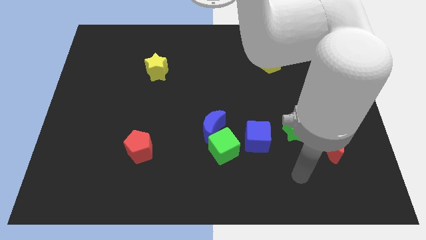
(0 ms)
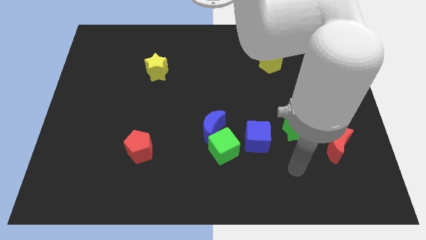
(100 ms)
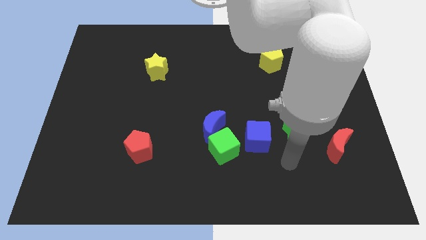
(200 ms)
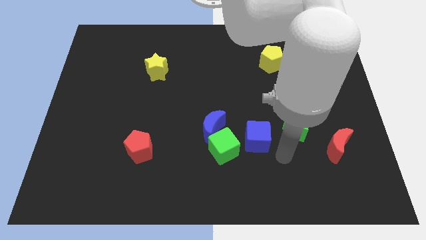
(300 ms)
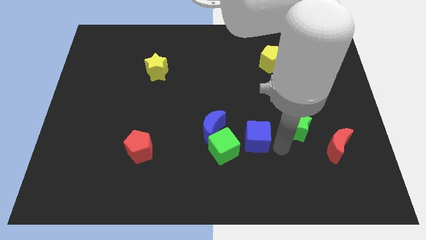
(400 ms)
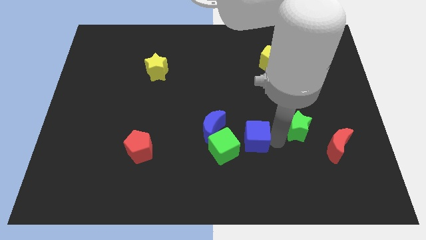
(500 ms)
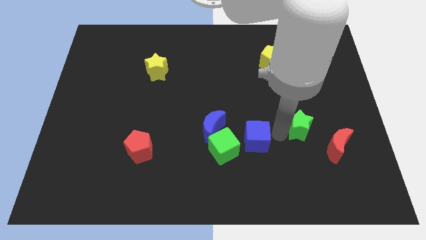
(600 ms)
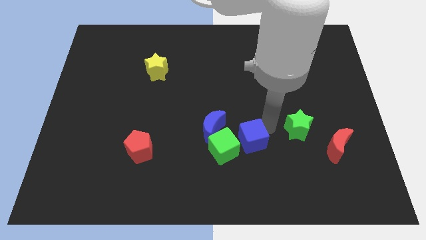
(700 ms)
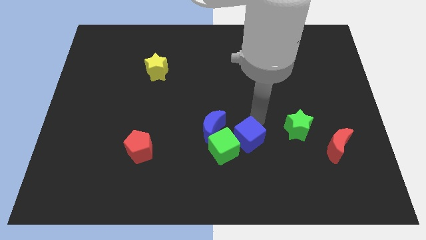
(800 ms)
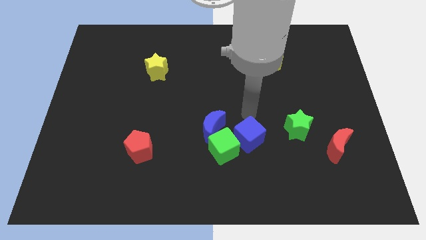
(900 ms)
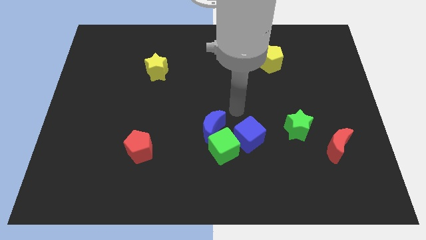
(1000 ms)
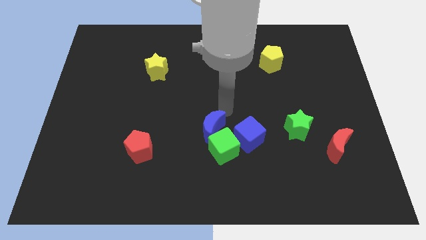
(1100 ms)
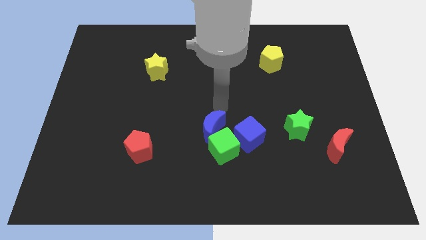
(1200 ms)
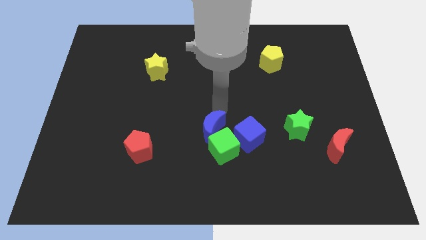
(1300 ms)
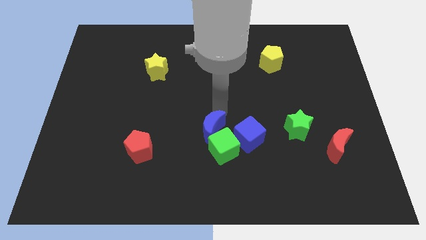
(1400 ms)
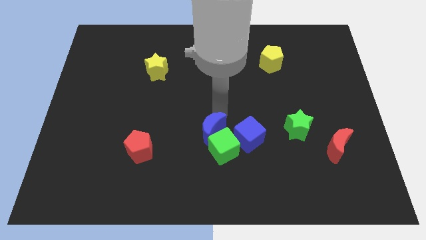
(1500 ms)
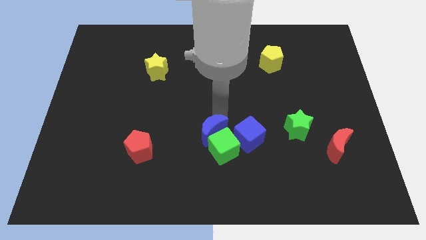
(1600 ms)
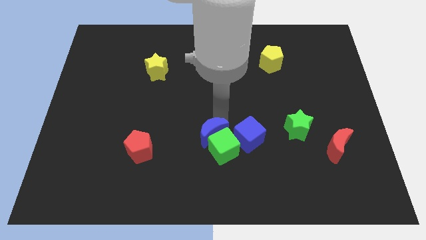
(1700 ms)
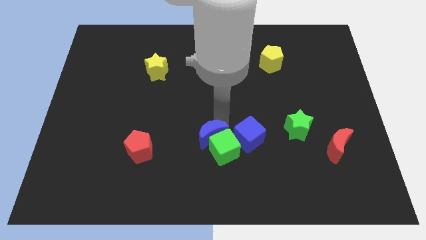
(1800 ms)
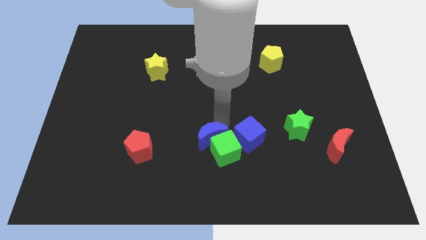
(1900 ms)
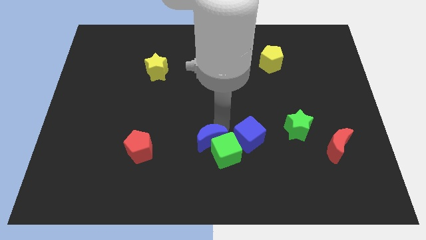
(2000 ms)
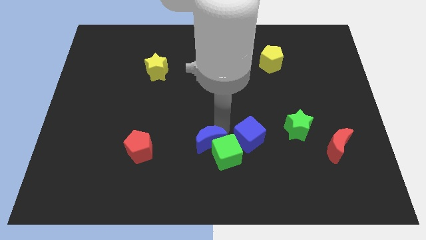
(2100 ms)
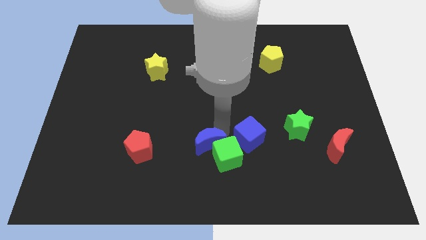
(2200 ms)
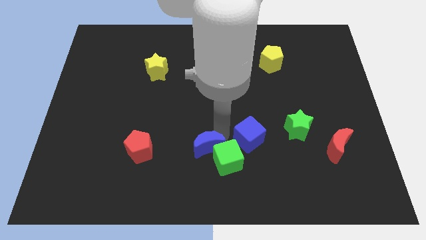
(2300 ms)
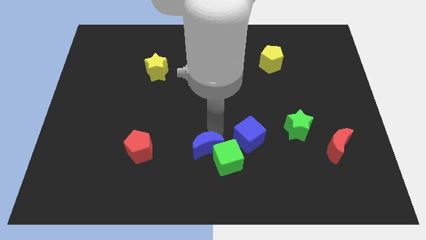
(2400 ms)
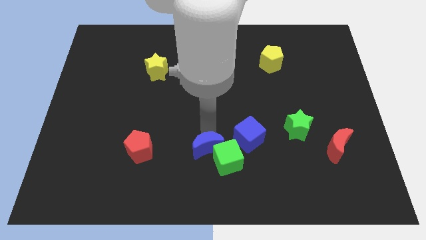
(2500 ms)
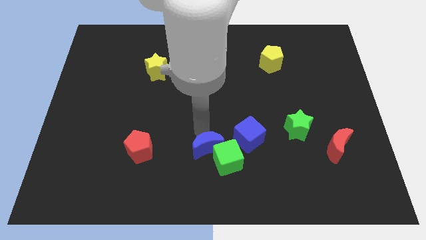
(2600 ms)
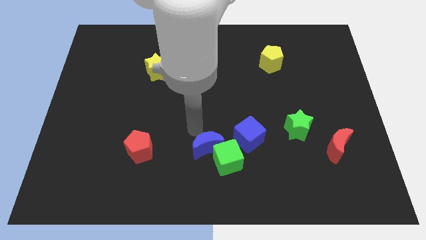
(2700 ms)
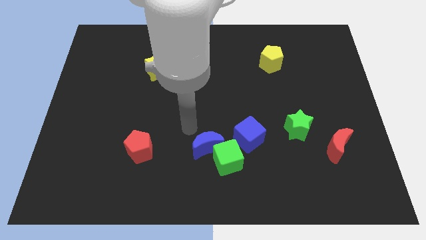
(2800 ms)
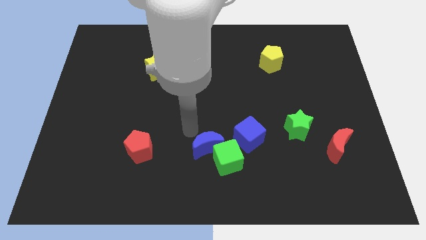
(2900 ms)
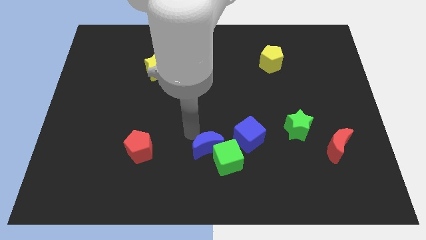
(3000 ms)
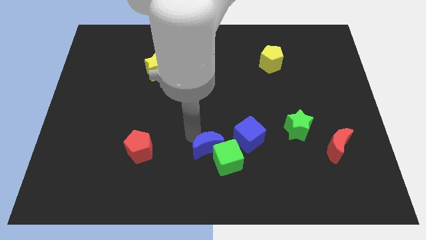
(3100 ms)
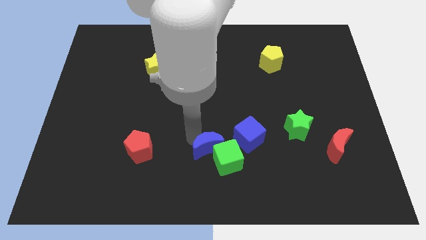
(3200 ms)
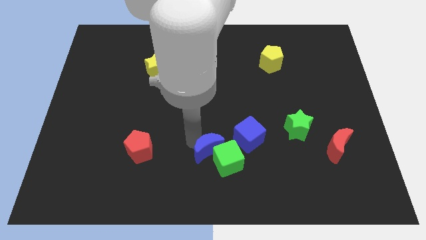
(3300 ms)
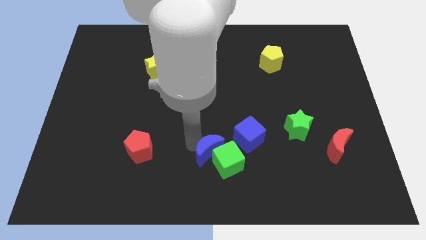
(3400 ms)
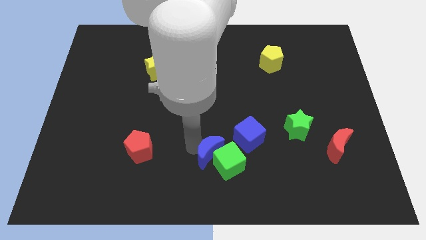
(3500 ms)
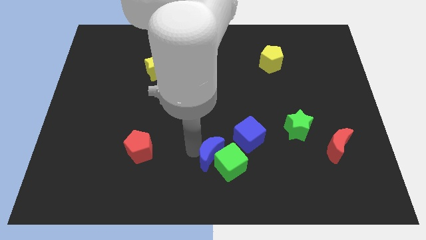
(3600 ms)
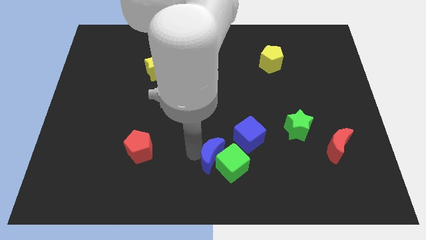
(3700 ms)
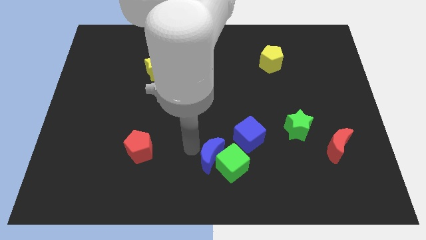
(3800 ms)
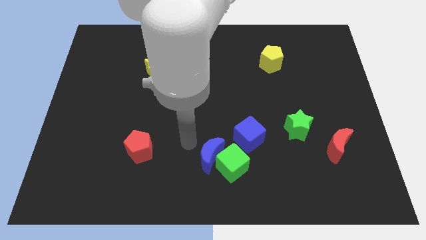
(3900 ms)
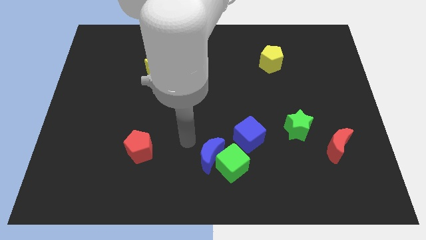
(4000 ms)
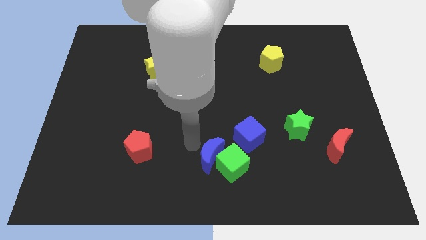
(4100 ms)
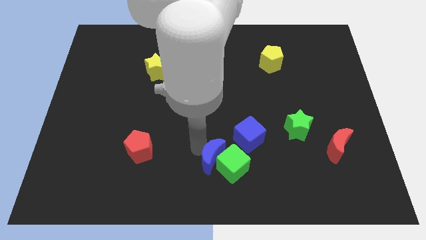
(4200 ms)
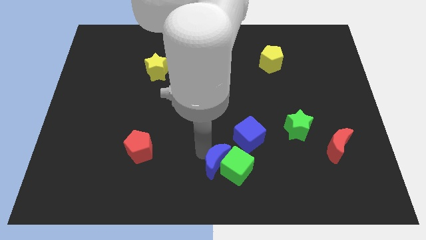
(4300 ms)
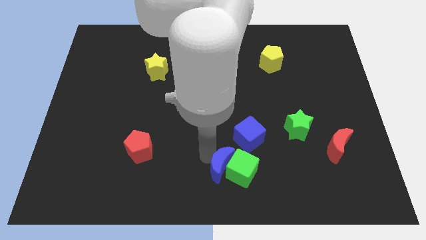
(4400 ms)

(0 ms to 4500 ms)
slightly push the blue moon down and then to the right

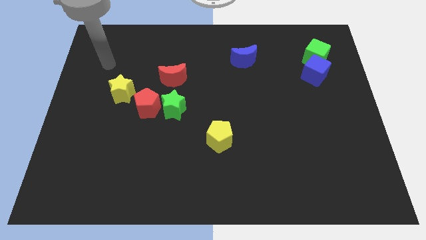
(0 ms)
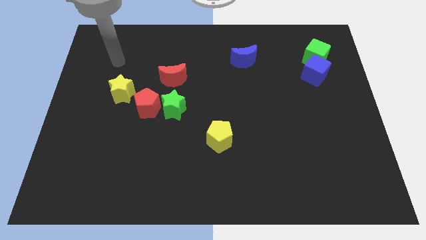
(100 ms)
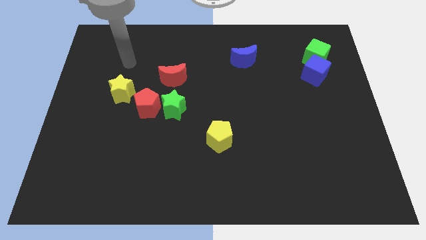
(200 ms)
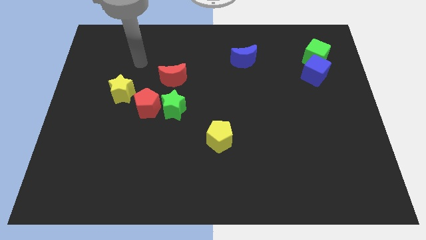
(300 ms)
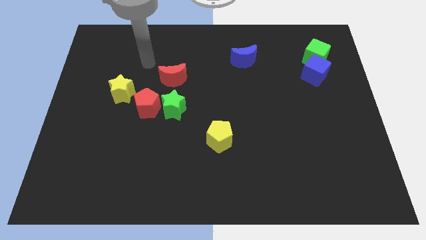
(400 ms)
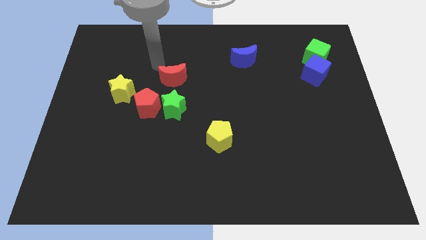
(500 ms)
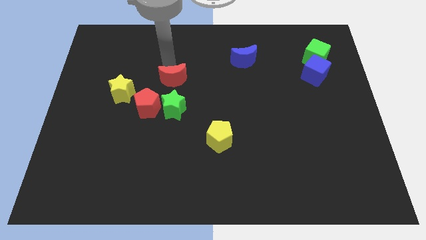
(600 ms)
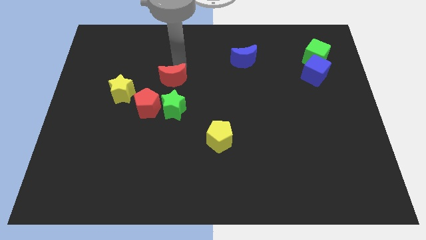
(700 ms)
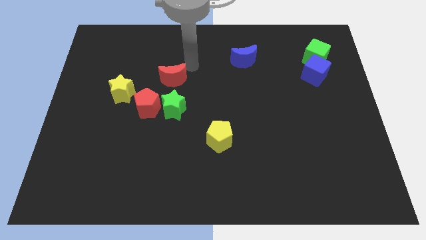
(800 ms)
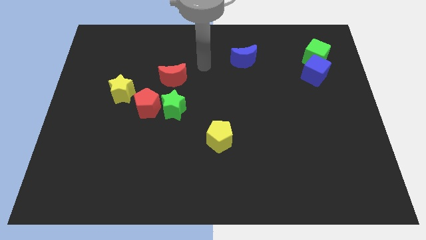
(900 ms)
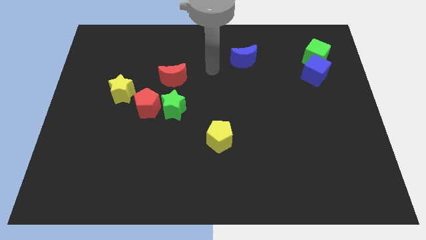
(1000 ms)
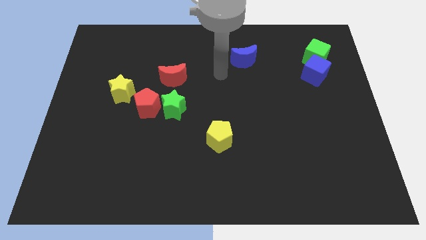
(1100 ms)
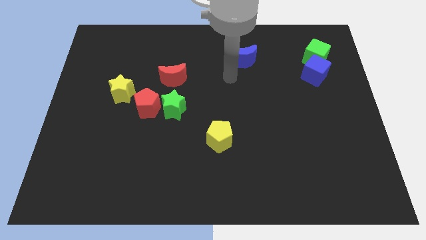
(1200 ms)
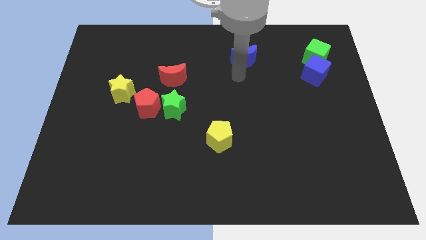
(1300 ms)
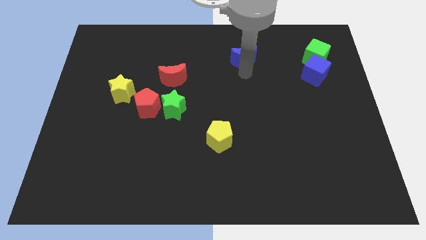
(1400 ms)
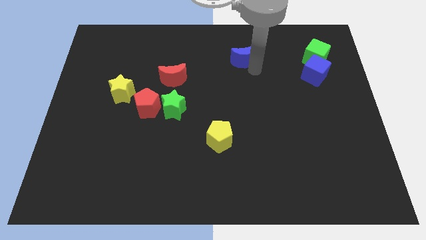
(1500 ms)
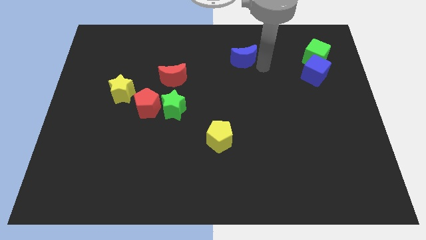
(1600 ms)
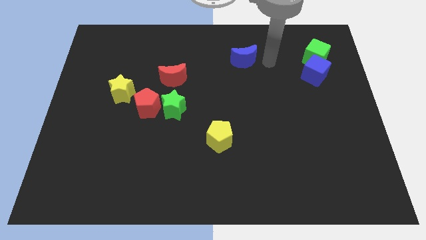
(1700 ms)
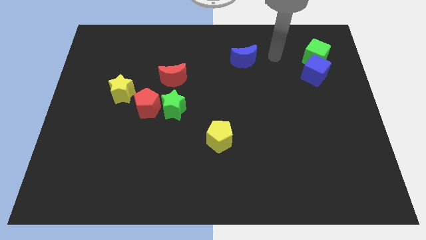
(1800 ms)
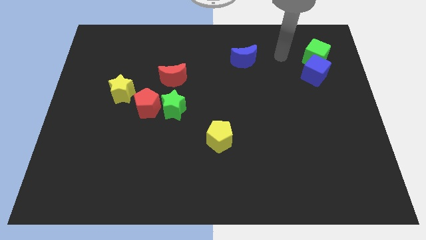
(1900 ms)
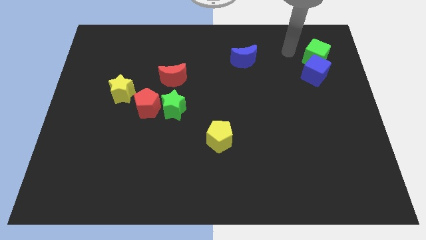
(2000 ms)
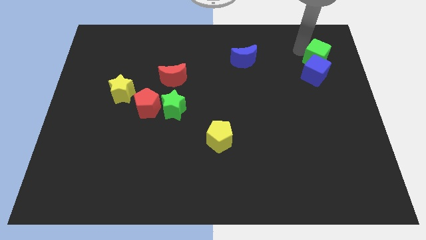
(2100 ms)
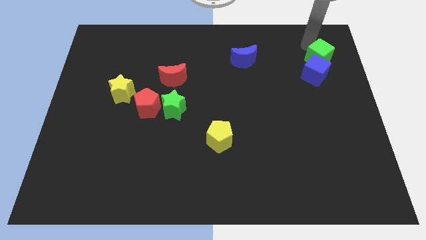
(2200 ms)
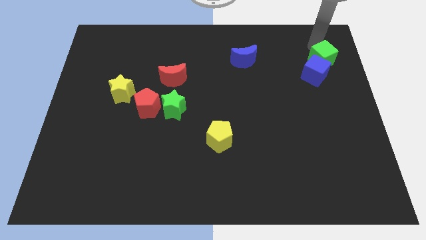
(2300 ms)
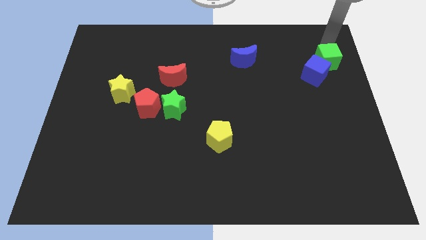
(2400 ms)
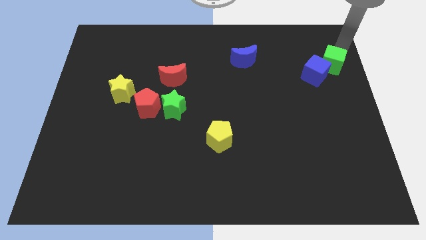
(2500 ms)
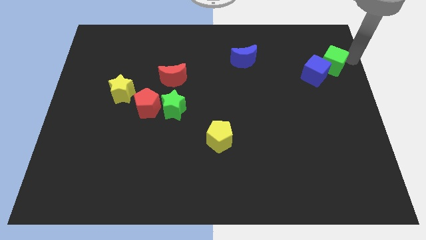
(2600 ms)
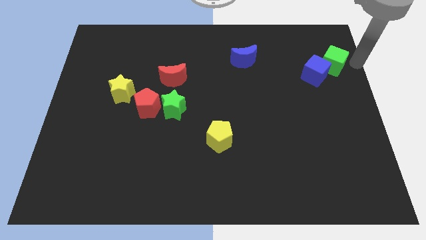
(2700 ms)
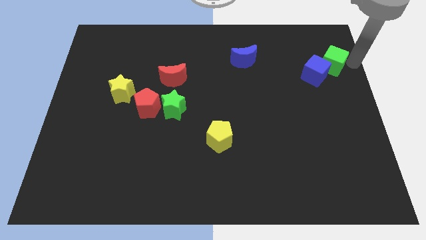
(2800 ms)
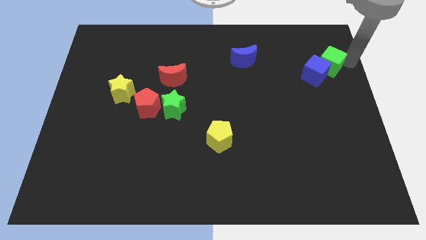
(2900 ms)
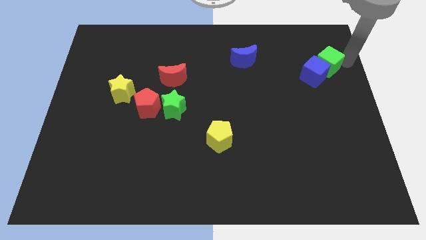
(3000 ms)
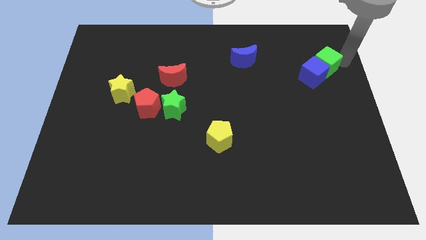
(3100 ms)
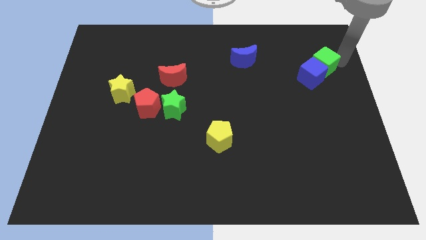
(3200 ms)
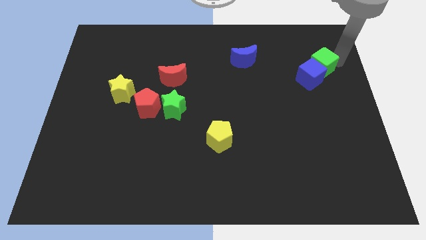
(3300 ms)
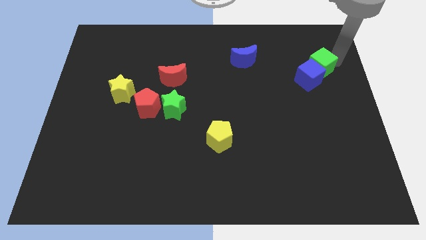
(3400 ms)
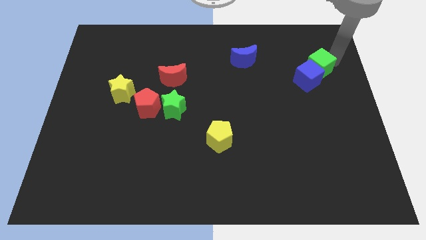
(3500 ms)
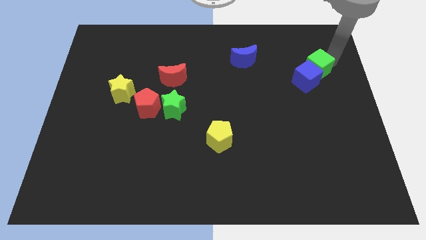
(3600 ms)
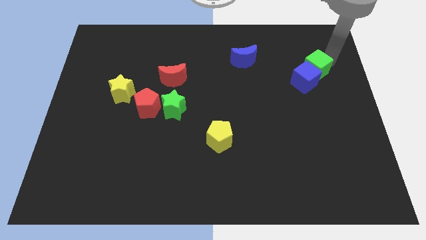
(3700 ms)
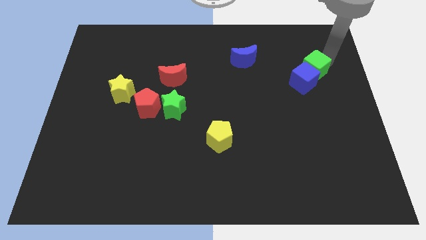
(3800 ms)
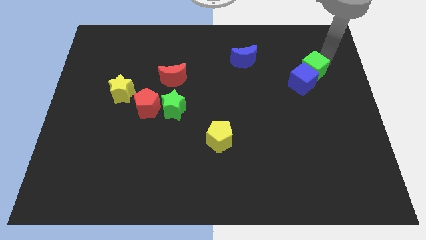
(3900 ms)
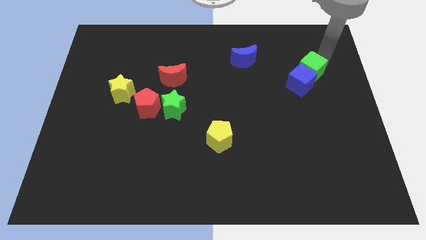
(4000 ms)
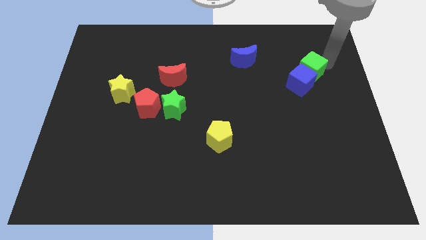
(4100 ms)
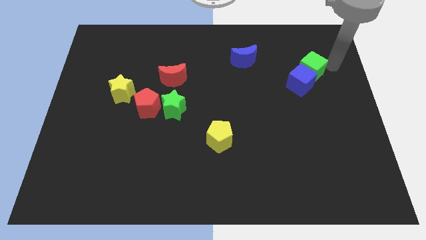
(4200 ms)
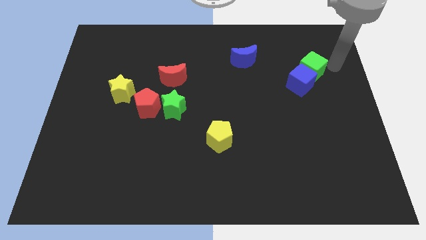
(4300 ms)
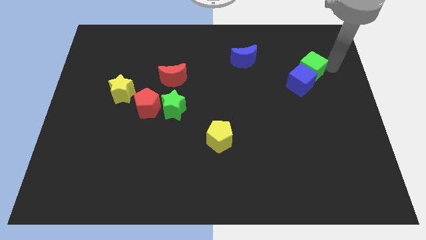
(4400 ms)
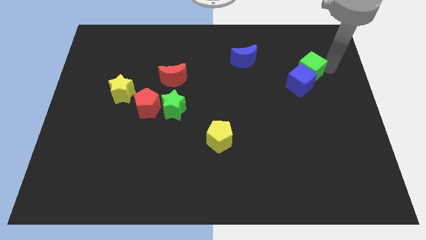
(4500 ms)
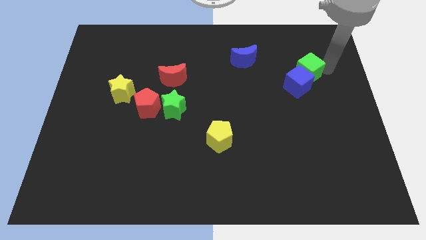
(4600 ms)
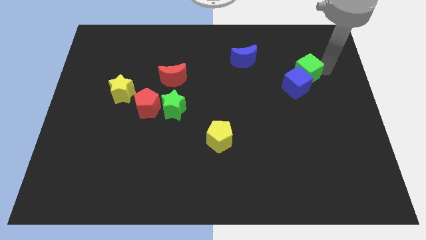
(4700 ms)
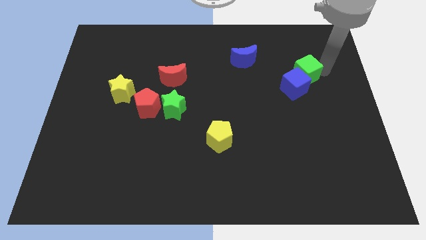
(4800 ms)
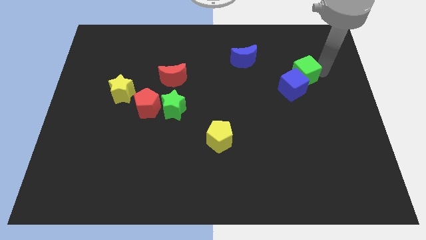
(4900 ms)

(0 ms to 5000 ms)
slide the green cube a bit diagonally downwards and left
